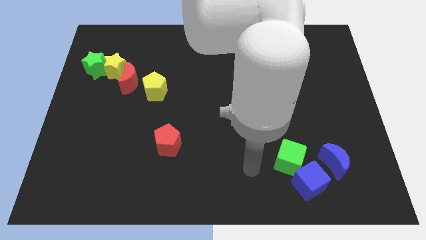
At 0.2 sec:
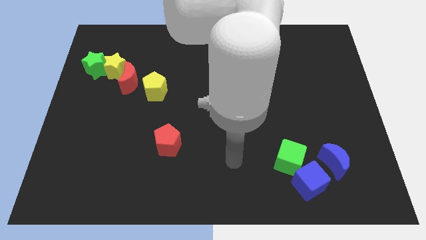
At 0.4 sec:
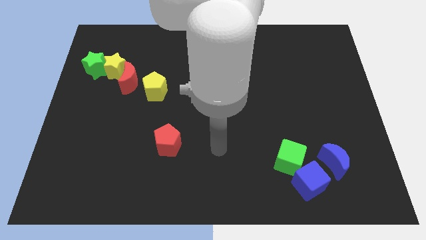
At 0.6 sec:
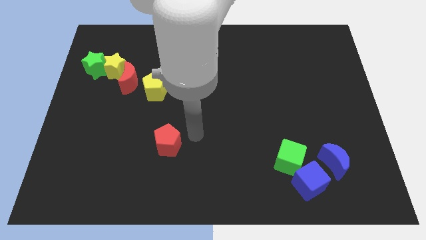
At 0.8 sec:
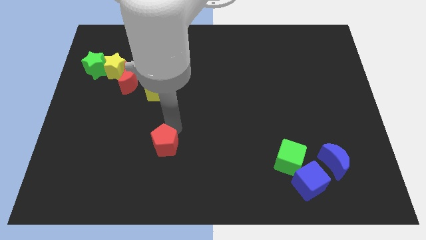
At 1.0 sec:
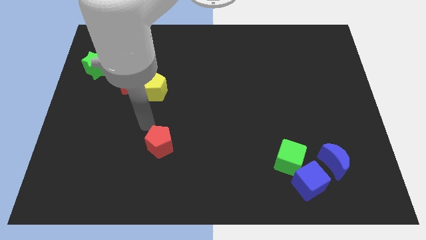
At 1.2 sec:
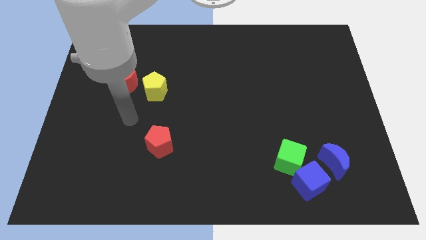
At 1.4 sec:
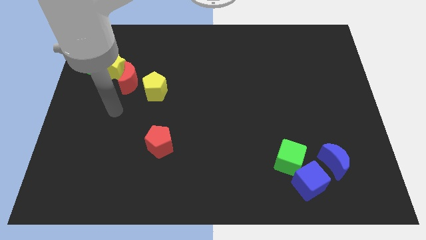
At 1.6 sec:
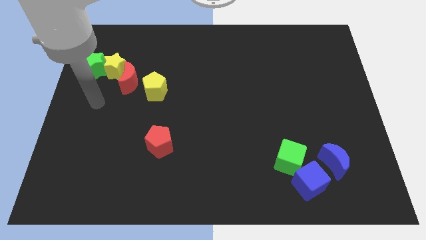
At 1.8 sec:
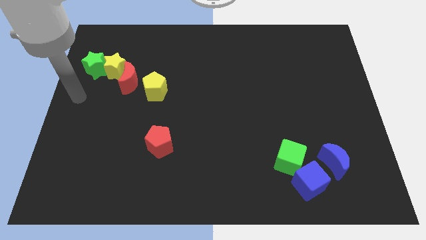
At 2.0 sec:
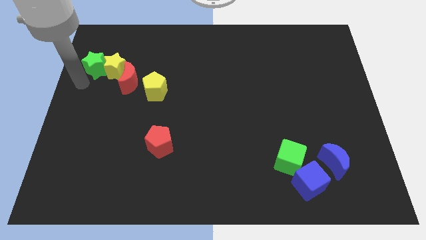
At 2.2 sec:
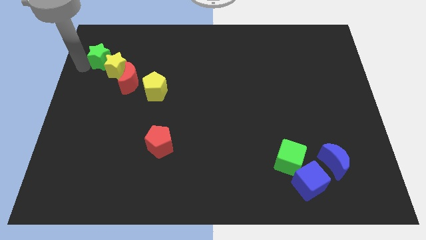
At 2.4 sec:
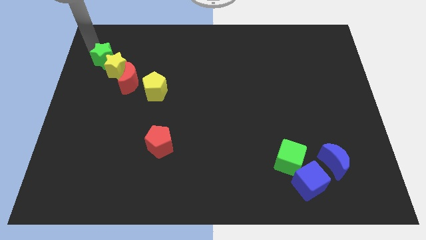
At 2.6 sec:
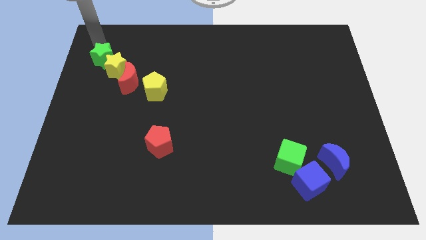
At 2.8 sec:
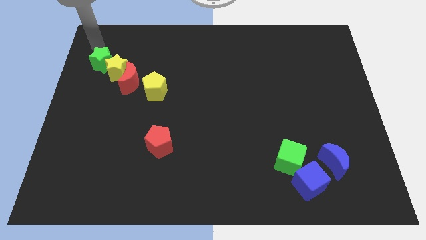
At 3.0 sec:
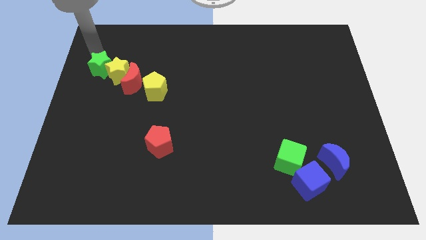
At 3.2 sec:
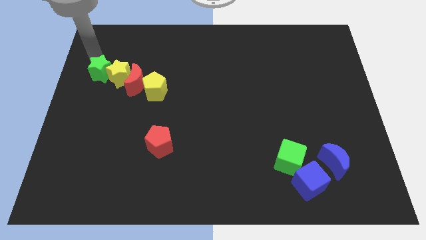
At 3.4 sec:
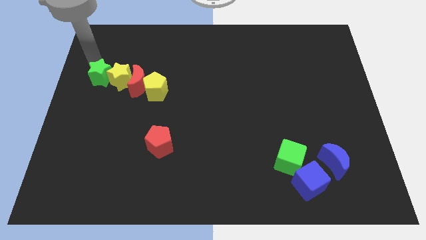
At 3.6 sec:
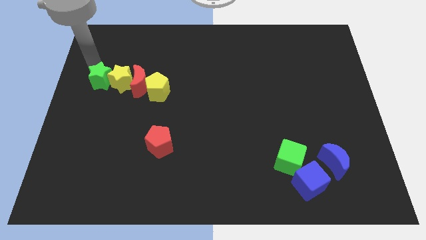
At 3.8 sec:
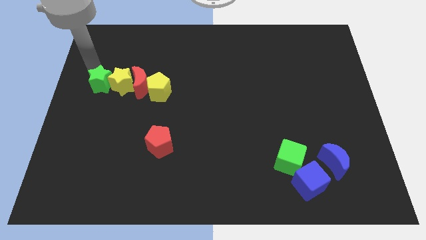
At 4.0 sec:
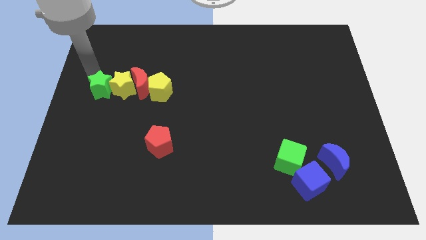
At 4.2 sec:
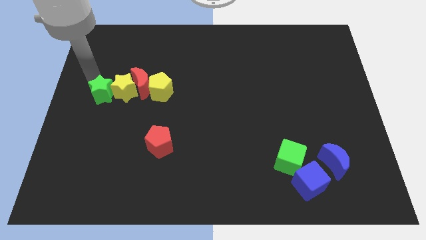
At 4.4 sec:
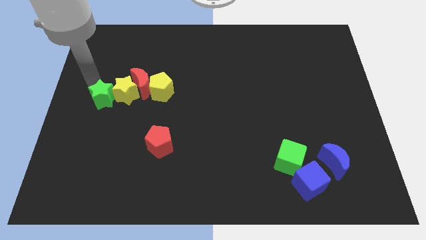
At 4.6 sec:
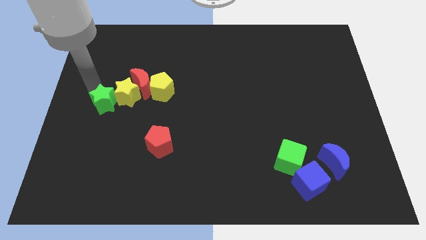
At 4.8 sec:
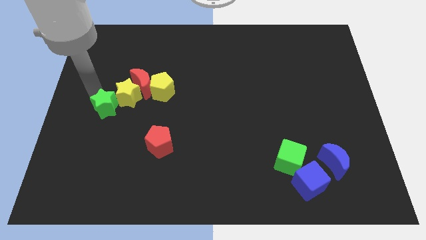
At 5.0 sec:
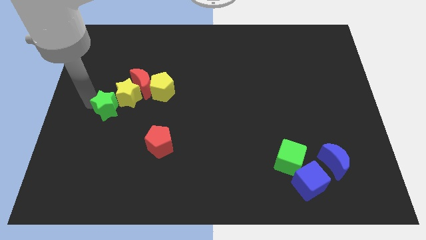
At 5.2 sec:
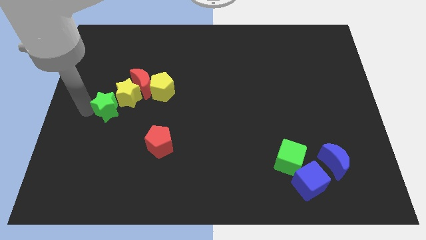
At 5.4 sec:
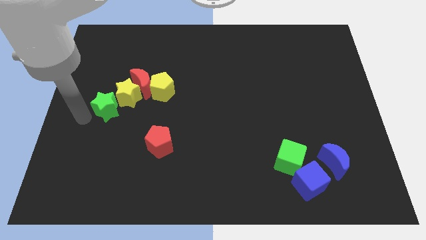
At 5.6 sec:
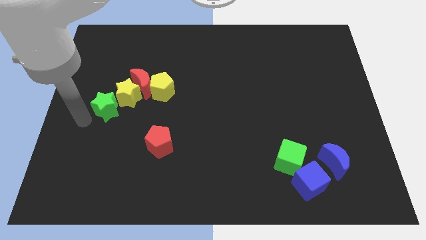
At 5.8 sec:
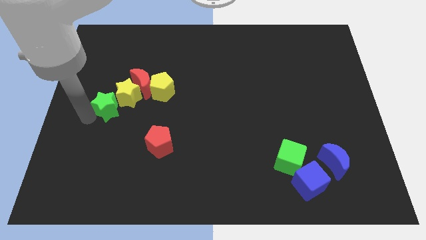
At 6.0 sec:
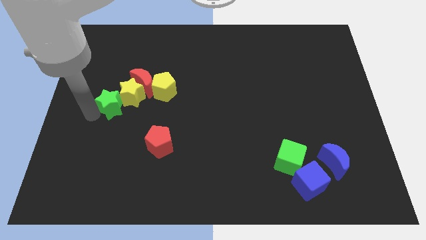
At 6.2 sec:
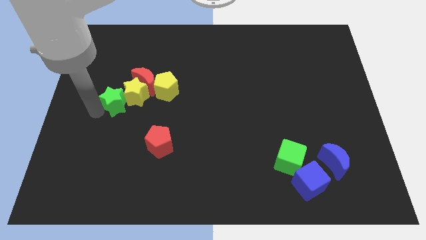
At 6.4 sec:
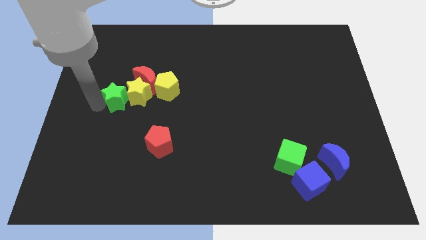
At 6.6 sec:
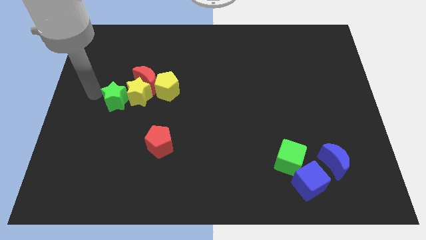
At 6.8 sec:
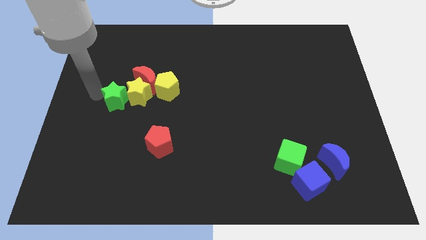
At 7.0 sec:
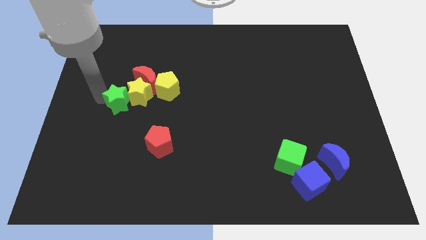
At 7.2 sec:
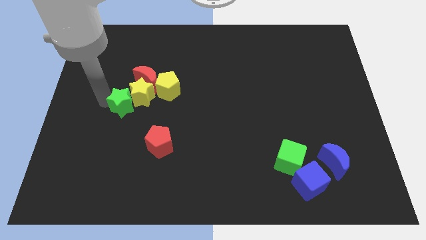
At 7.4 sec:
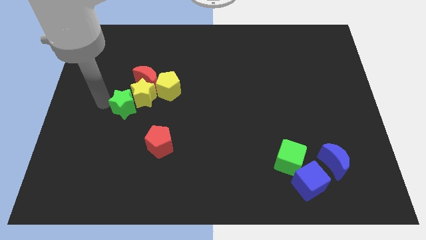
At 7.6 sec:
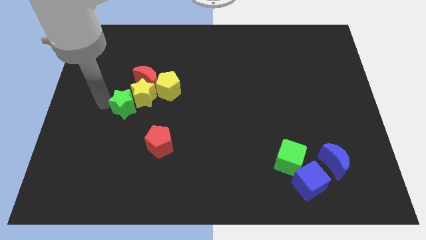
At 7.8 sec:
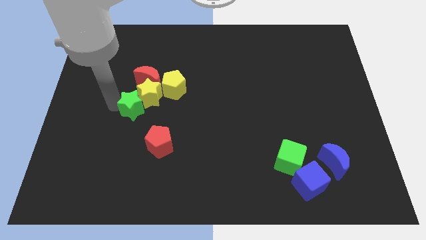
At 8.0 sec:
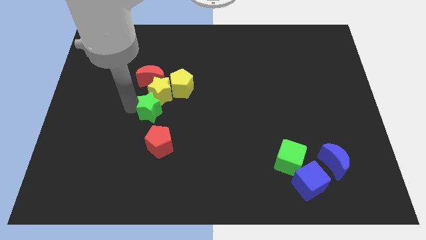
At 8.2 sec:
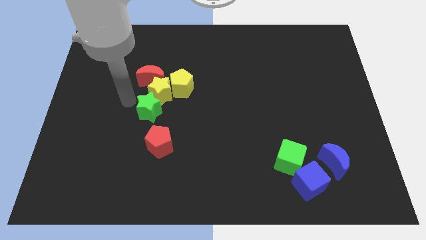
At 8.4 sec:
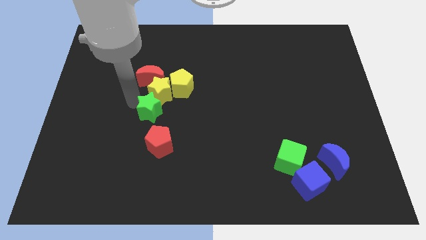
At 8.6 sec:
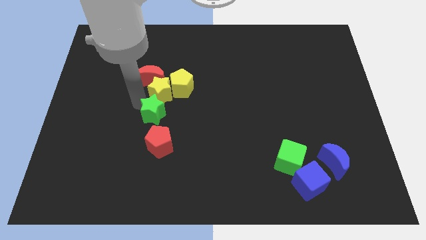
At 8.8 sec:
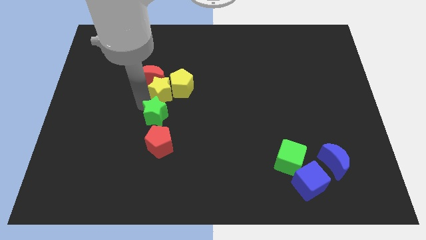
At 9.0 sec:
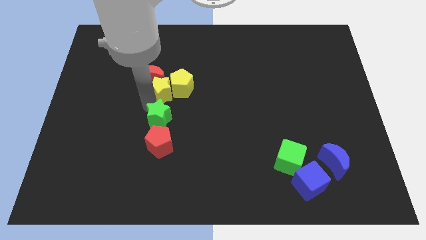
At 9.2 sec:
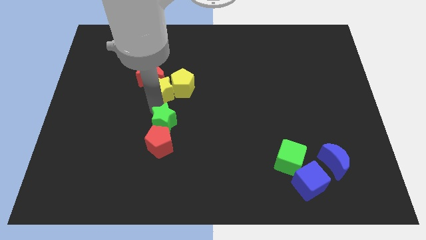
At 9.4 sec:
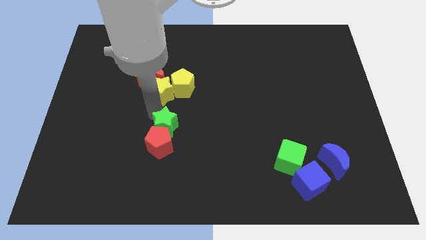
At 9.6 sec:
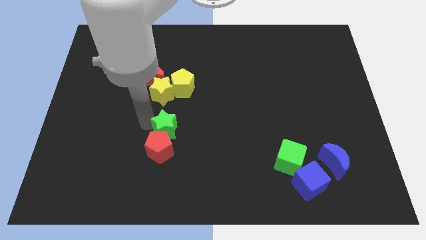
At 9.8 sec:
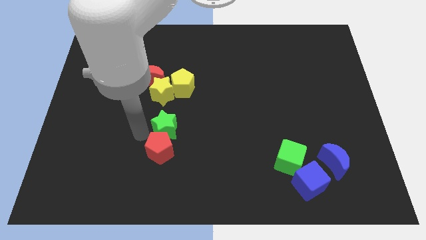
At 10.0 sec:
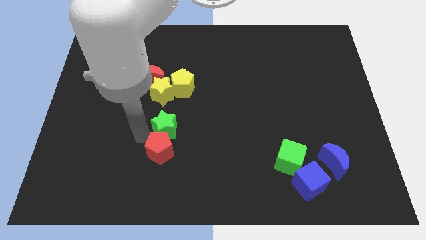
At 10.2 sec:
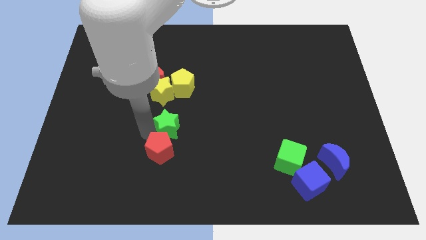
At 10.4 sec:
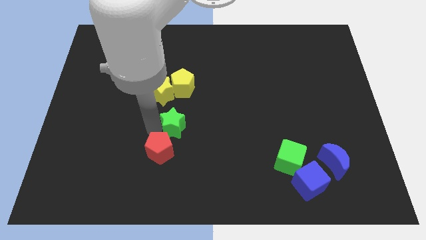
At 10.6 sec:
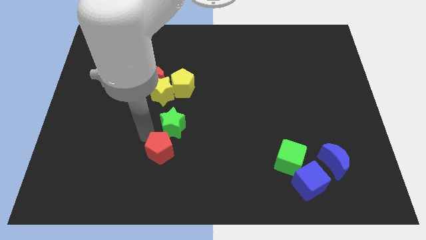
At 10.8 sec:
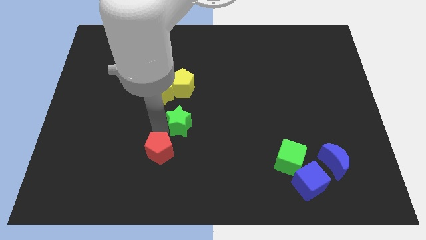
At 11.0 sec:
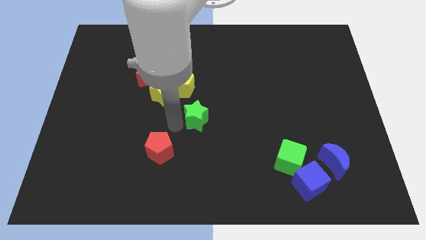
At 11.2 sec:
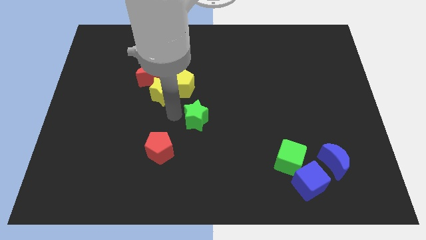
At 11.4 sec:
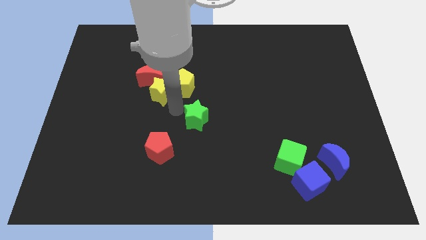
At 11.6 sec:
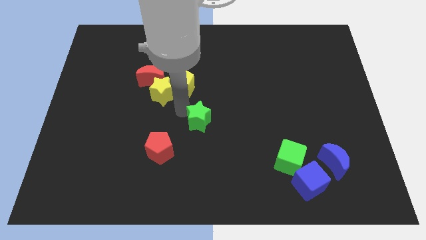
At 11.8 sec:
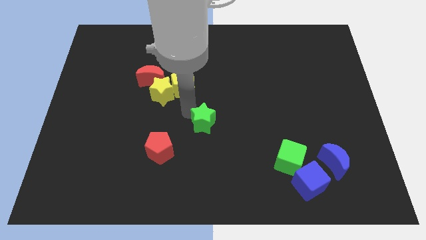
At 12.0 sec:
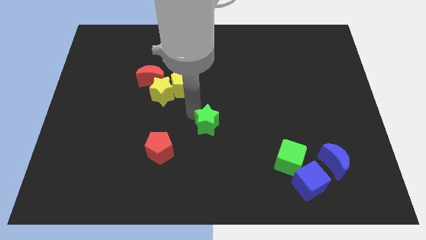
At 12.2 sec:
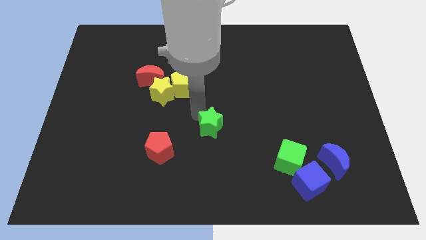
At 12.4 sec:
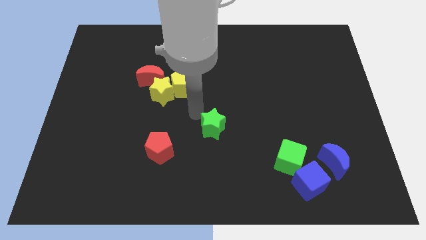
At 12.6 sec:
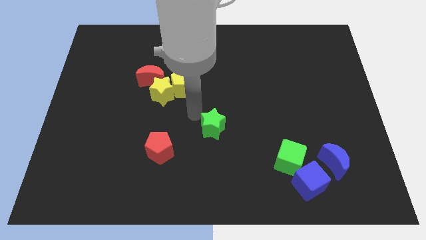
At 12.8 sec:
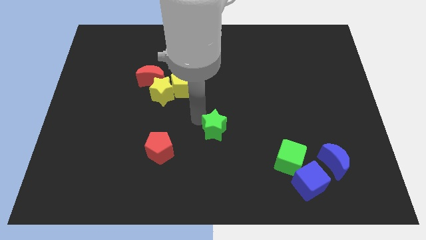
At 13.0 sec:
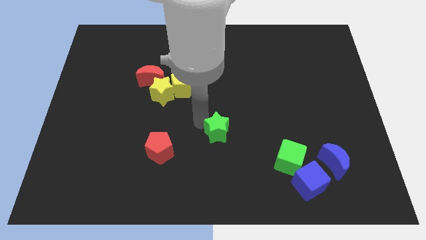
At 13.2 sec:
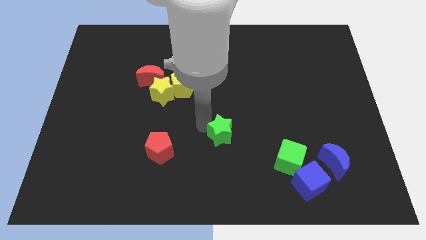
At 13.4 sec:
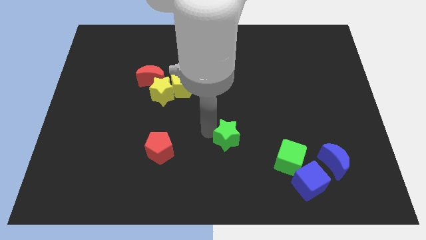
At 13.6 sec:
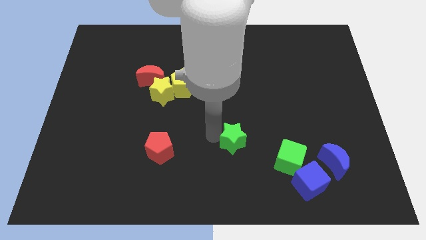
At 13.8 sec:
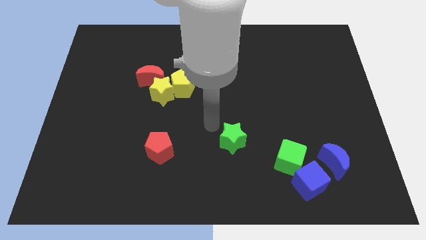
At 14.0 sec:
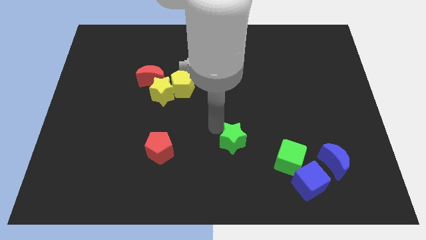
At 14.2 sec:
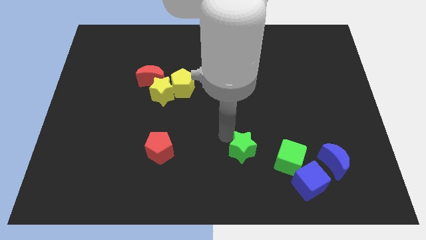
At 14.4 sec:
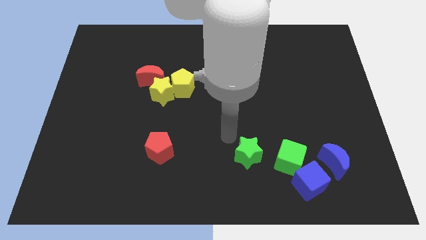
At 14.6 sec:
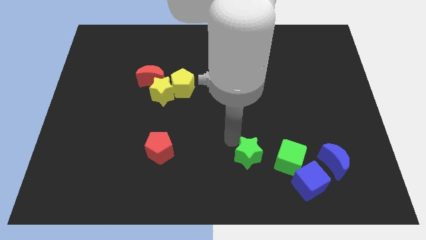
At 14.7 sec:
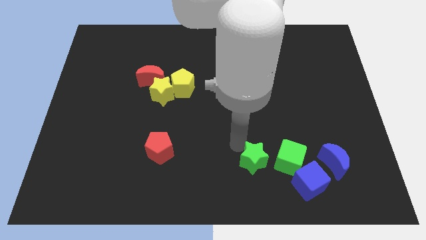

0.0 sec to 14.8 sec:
slide the green star diagonally up and to the left of the blue cube
